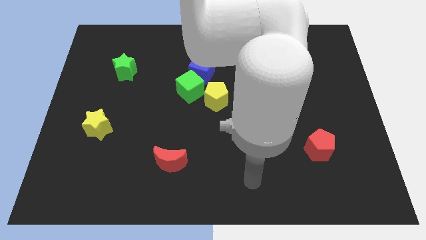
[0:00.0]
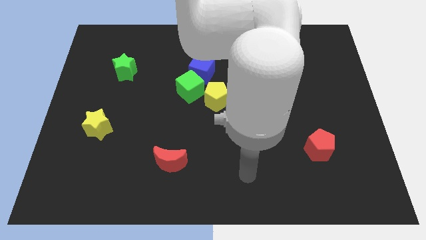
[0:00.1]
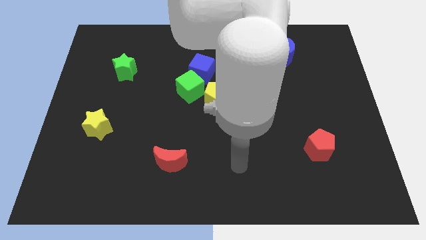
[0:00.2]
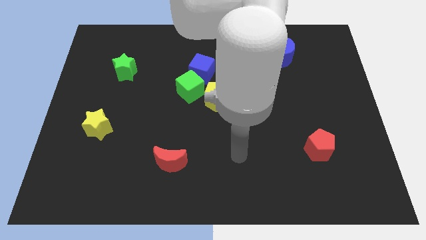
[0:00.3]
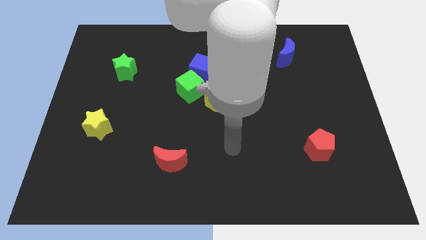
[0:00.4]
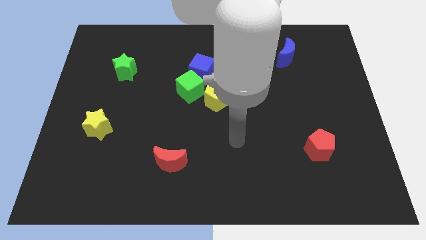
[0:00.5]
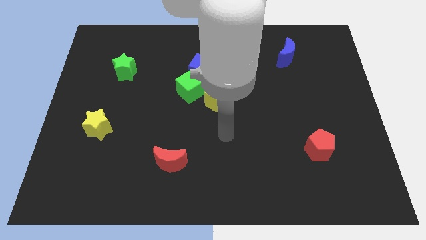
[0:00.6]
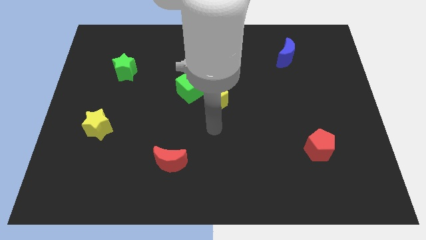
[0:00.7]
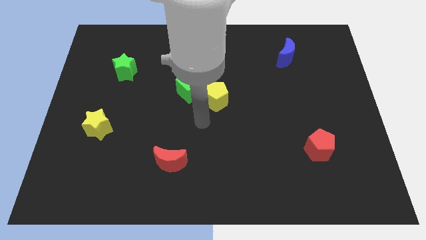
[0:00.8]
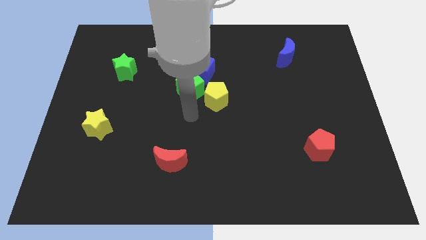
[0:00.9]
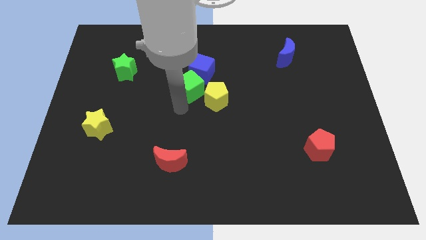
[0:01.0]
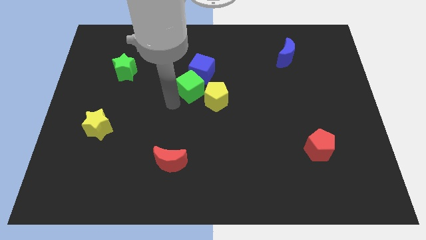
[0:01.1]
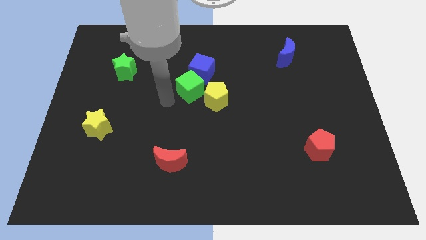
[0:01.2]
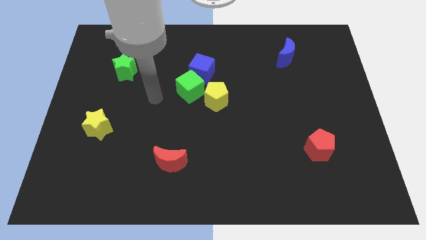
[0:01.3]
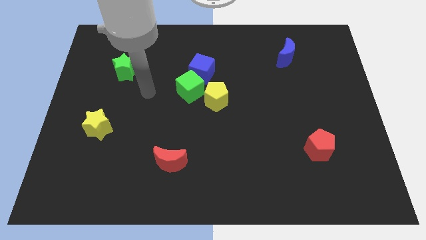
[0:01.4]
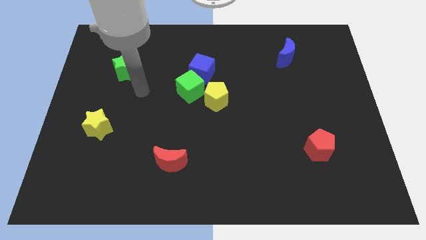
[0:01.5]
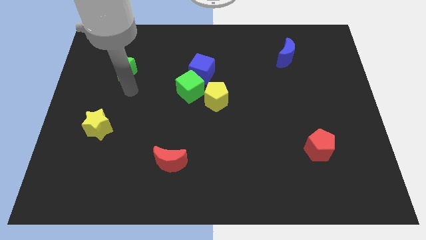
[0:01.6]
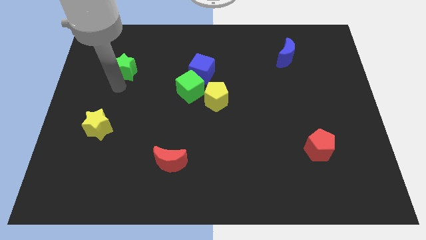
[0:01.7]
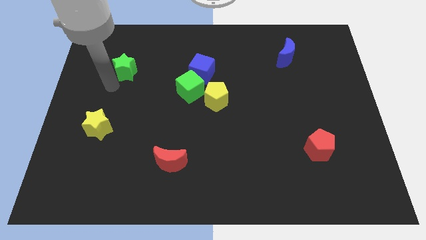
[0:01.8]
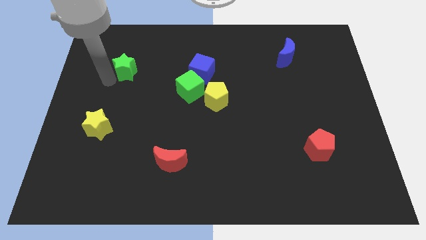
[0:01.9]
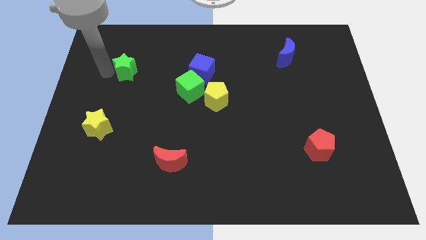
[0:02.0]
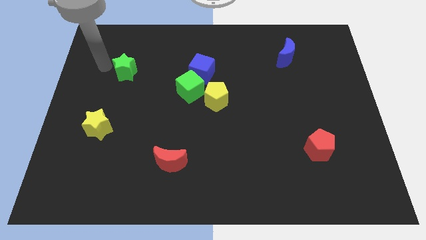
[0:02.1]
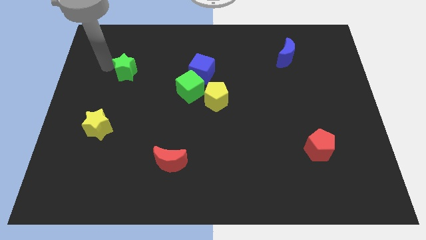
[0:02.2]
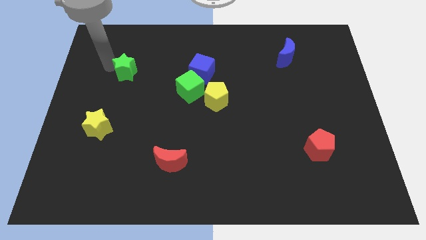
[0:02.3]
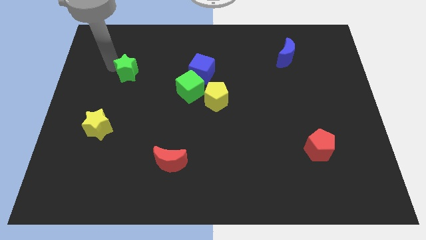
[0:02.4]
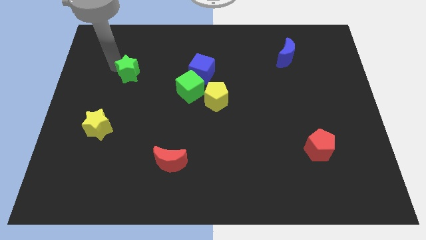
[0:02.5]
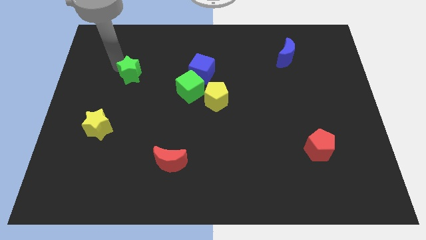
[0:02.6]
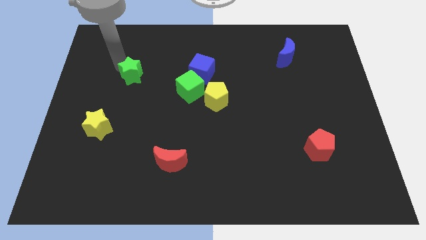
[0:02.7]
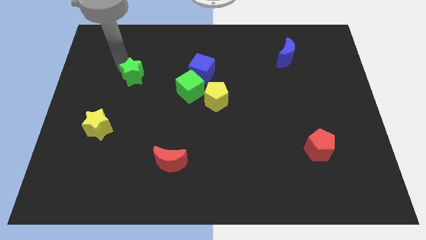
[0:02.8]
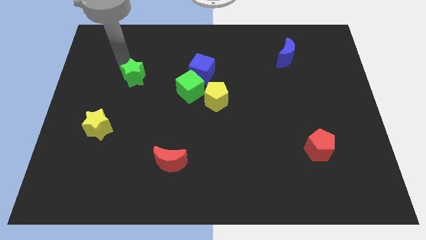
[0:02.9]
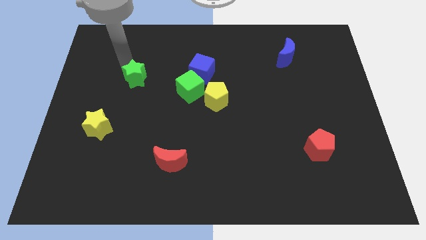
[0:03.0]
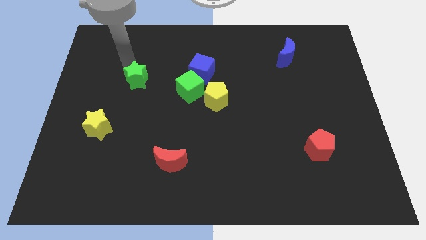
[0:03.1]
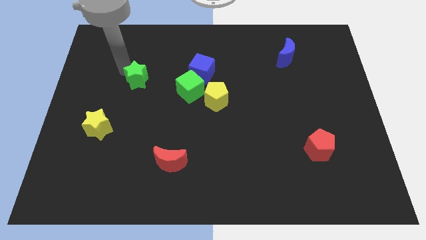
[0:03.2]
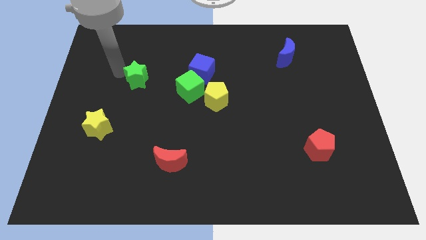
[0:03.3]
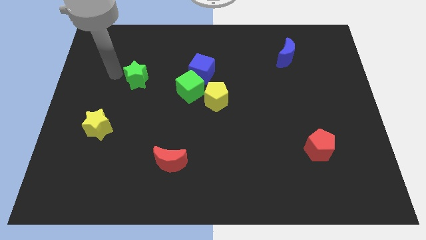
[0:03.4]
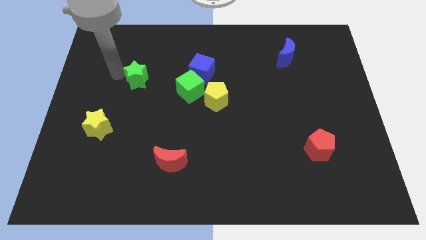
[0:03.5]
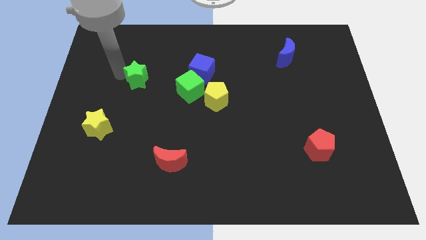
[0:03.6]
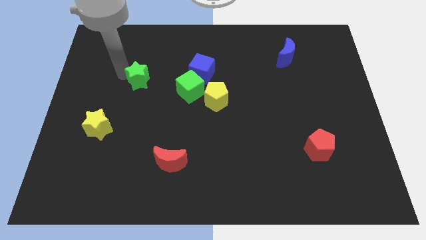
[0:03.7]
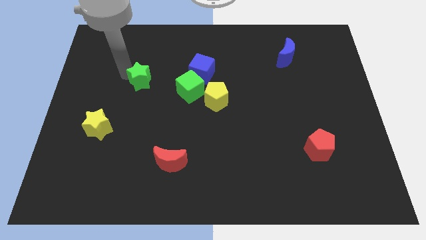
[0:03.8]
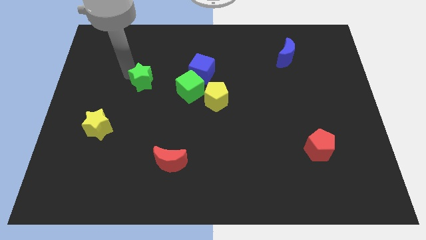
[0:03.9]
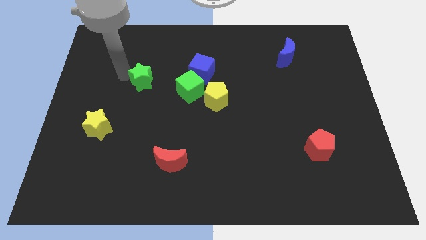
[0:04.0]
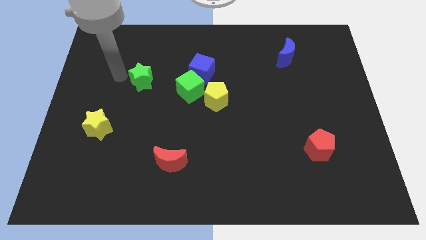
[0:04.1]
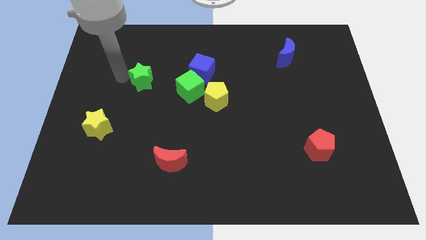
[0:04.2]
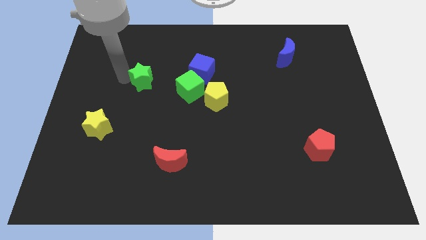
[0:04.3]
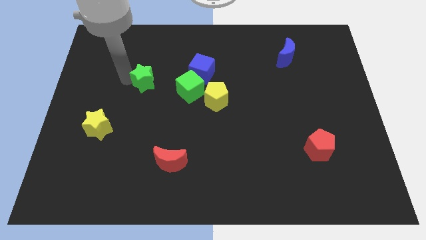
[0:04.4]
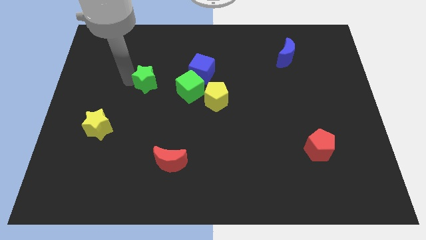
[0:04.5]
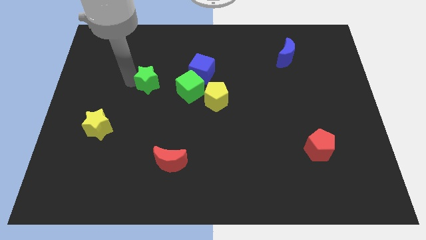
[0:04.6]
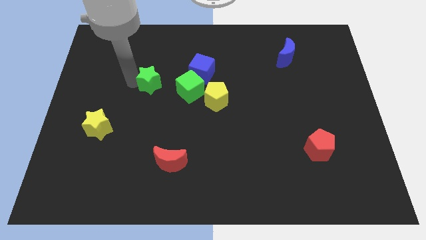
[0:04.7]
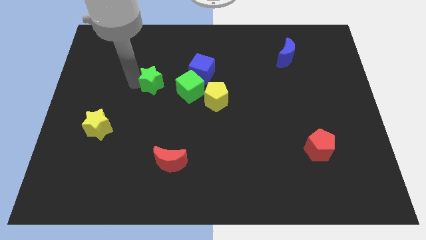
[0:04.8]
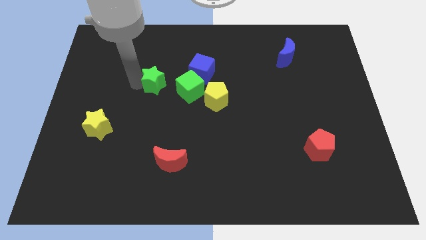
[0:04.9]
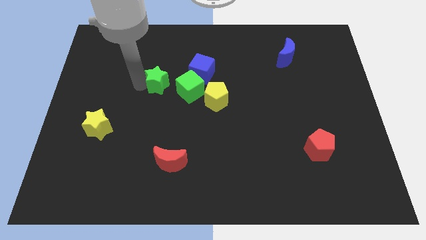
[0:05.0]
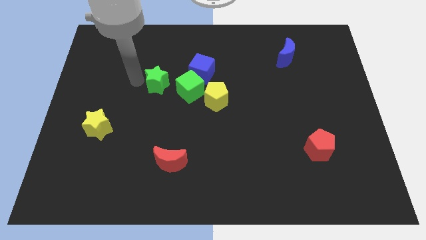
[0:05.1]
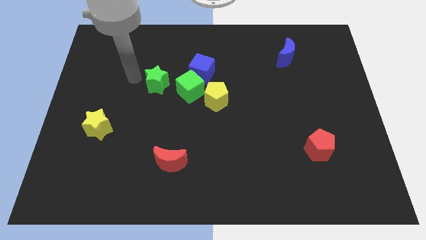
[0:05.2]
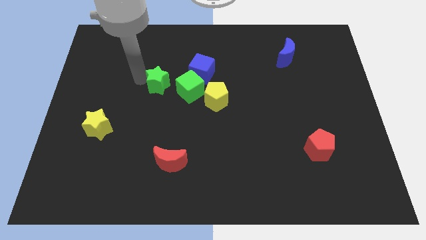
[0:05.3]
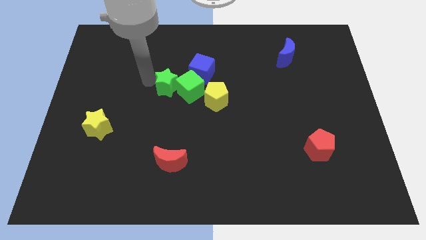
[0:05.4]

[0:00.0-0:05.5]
put the green star close to the green cube

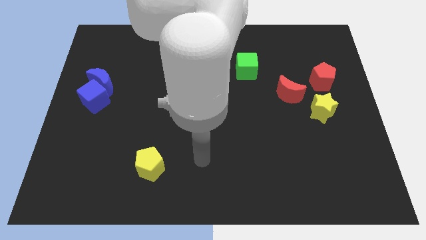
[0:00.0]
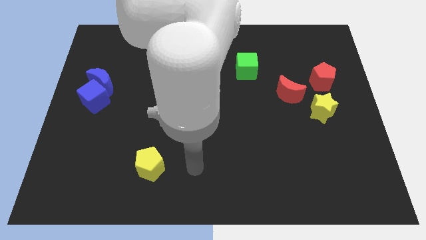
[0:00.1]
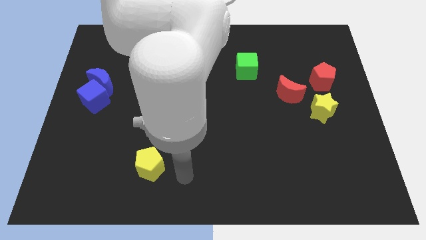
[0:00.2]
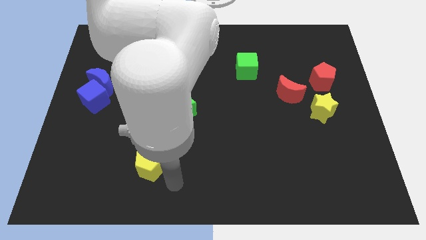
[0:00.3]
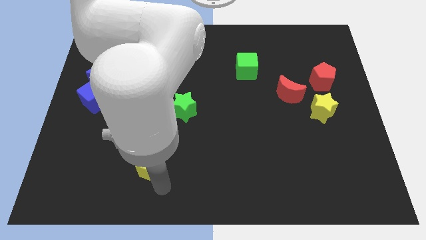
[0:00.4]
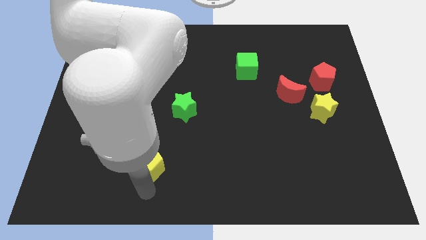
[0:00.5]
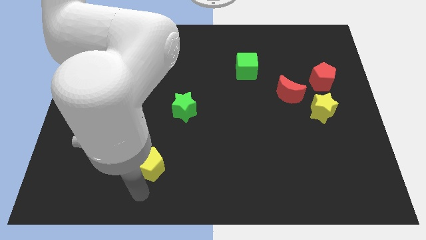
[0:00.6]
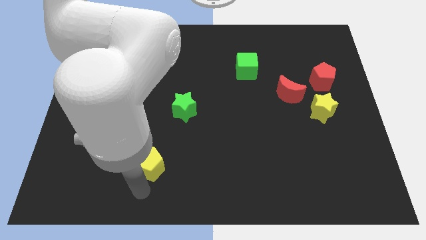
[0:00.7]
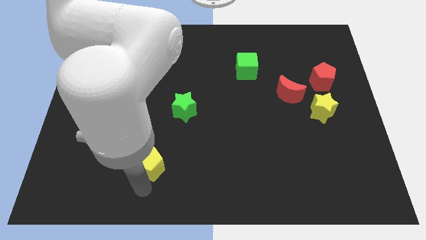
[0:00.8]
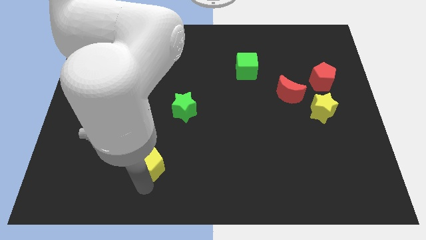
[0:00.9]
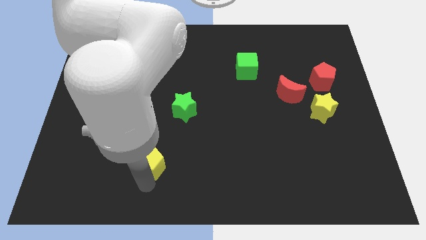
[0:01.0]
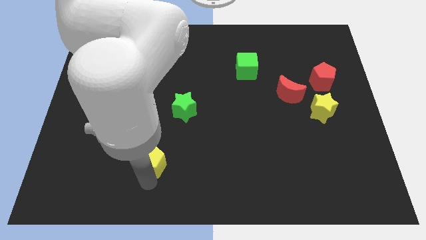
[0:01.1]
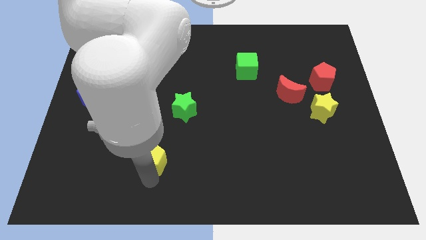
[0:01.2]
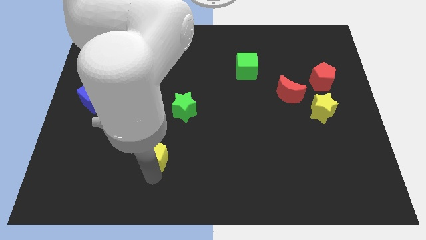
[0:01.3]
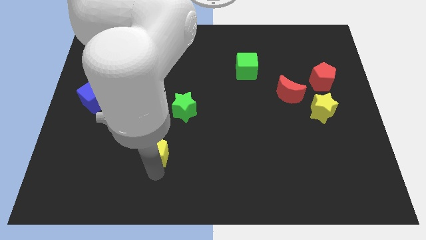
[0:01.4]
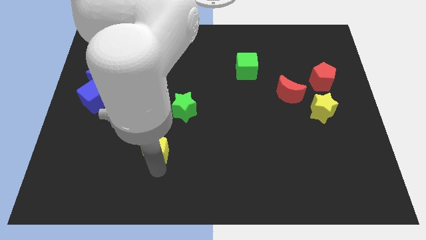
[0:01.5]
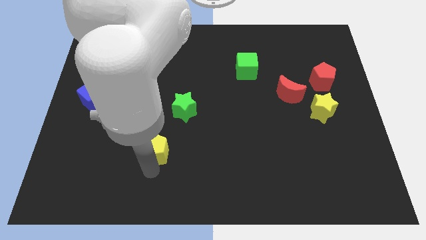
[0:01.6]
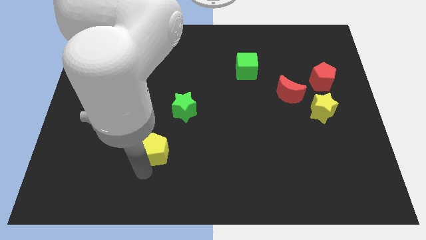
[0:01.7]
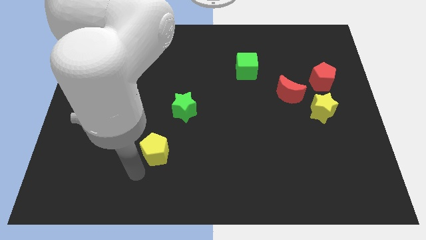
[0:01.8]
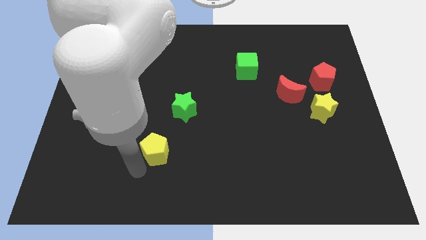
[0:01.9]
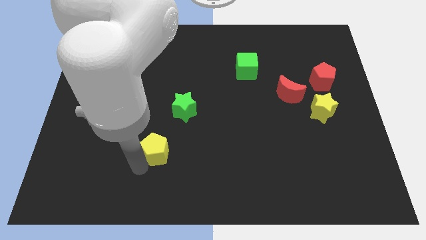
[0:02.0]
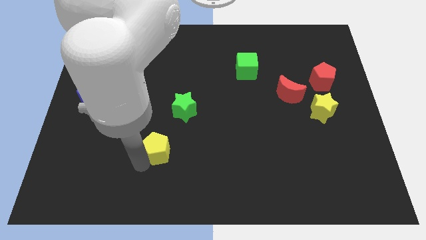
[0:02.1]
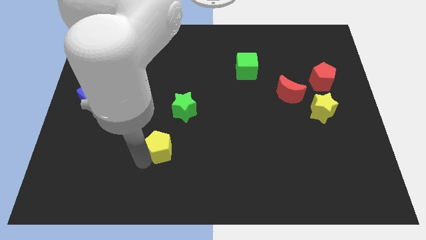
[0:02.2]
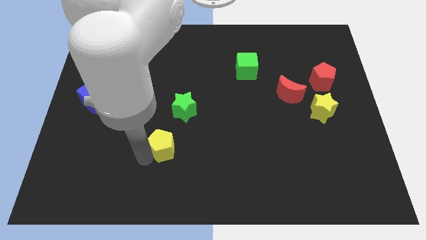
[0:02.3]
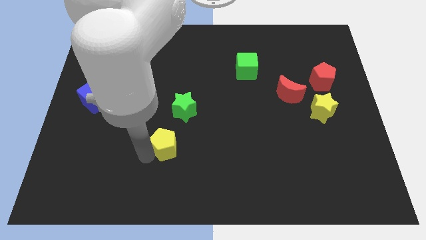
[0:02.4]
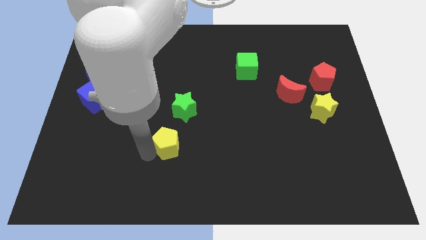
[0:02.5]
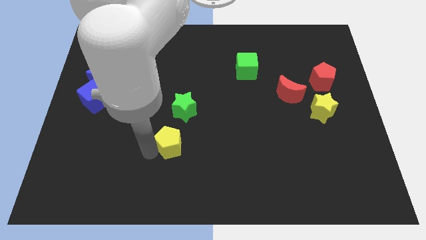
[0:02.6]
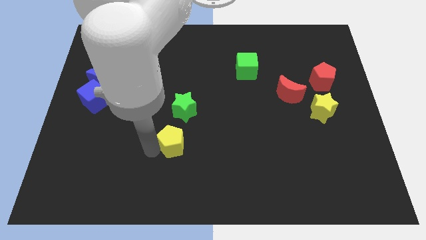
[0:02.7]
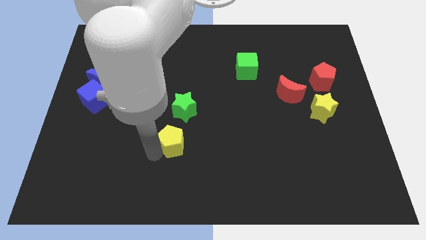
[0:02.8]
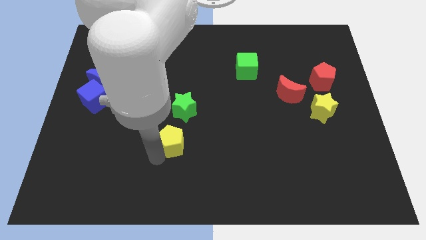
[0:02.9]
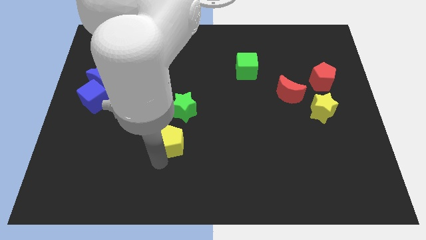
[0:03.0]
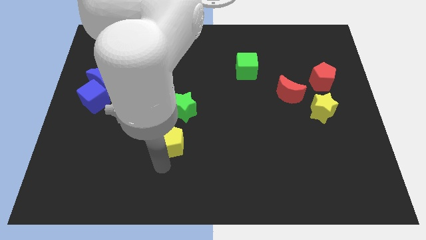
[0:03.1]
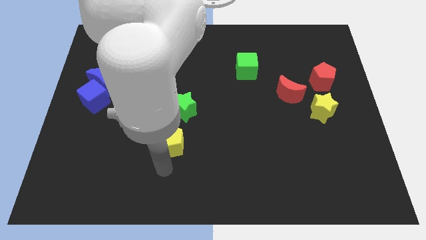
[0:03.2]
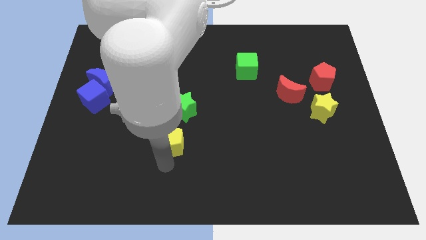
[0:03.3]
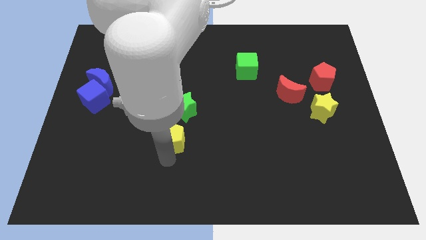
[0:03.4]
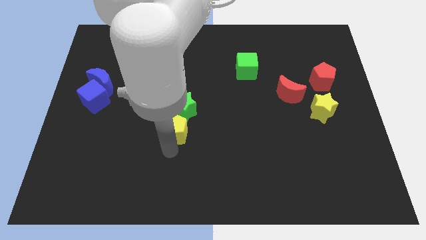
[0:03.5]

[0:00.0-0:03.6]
put the yellow pentagon towards the green star
